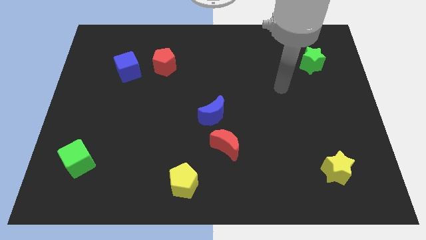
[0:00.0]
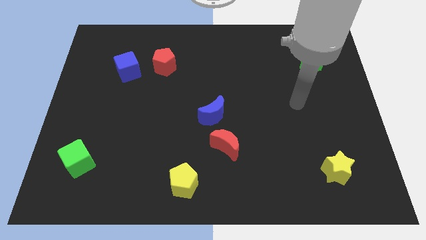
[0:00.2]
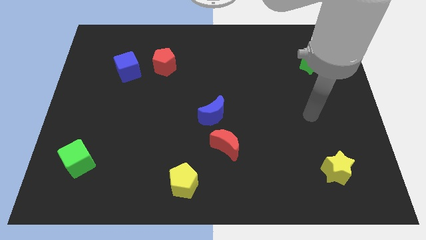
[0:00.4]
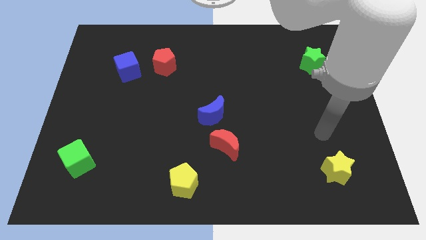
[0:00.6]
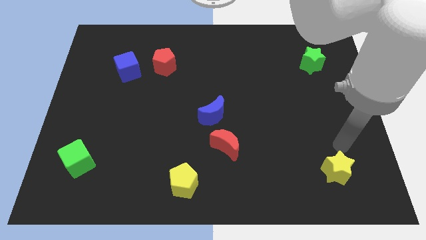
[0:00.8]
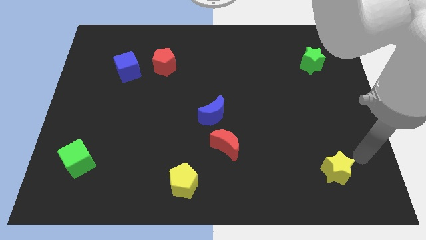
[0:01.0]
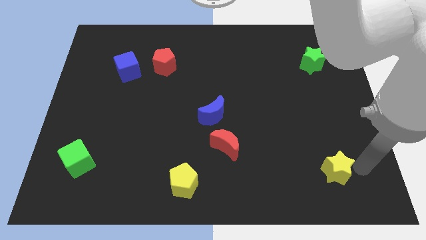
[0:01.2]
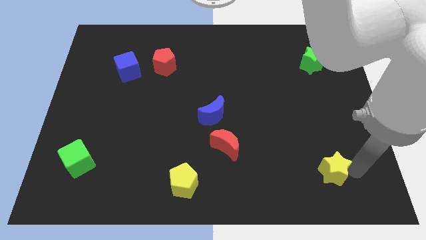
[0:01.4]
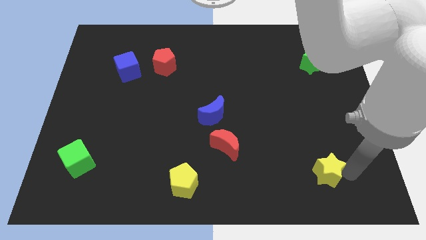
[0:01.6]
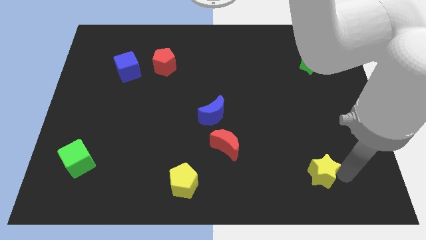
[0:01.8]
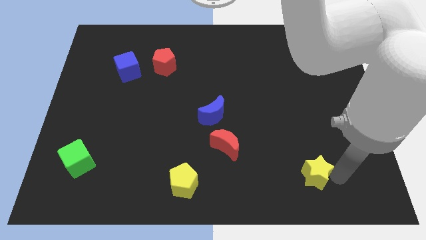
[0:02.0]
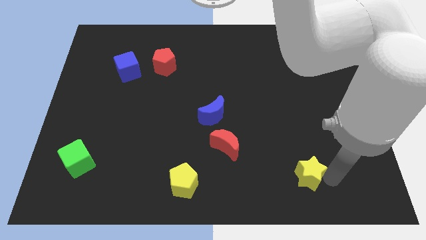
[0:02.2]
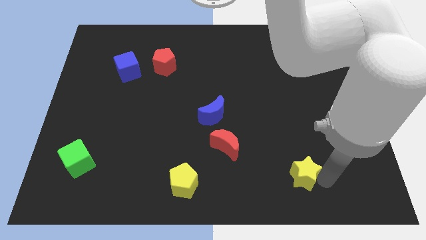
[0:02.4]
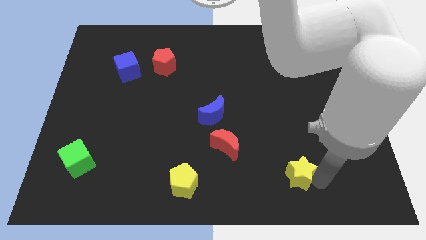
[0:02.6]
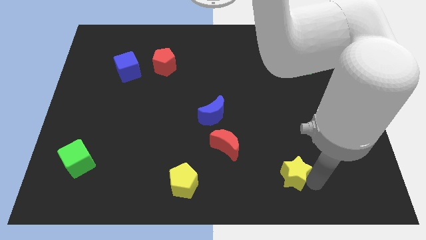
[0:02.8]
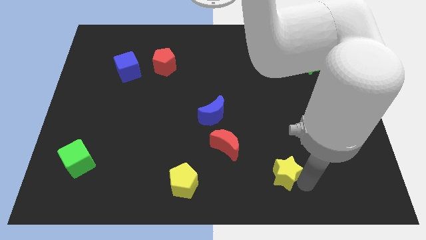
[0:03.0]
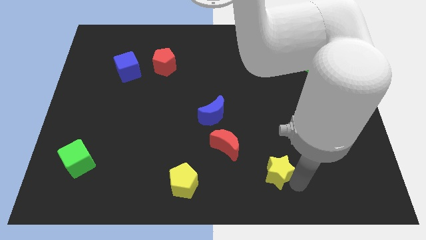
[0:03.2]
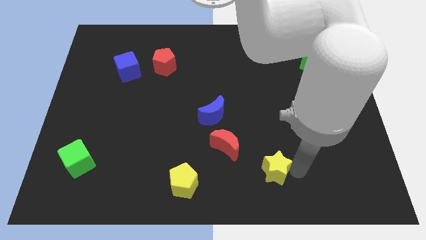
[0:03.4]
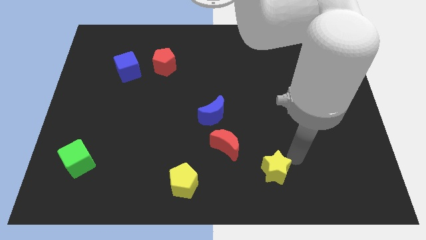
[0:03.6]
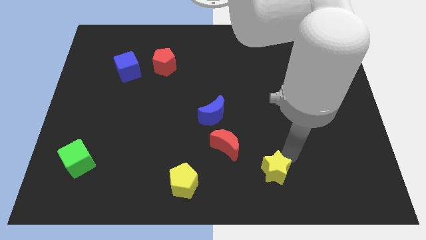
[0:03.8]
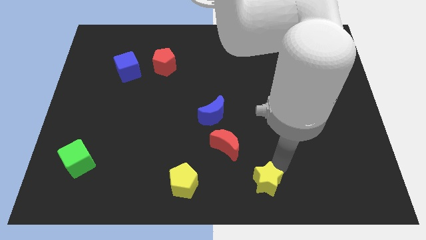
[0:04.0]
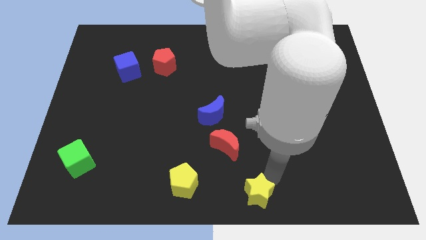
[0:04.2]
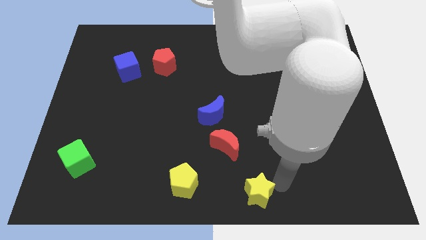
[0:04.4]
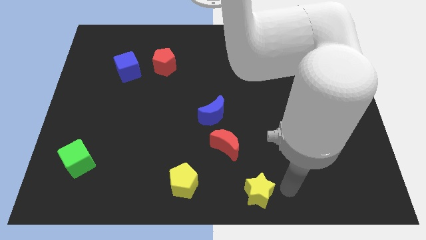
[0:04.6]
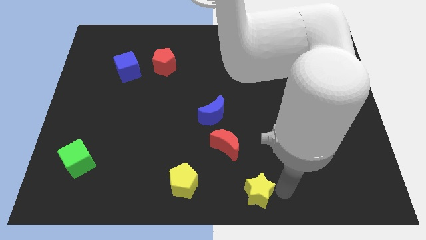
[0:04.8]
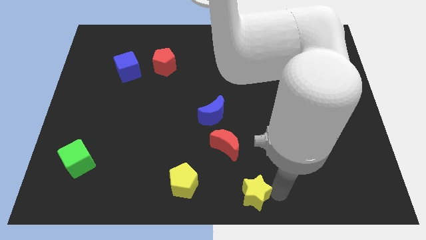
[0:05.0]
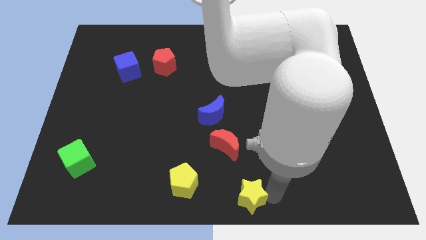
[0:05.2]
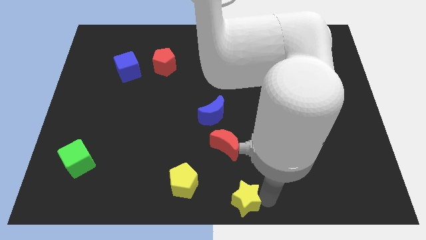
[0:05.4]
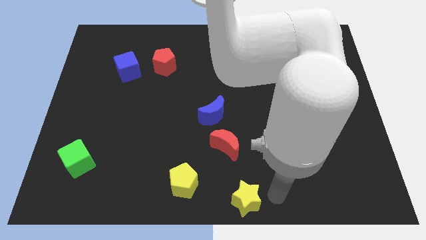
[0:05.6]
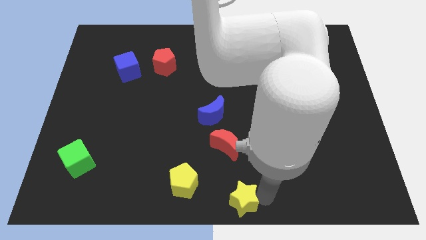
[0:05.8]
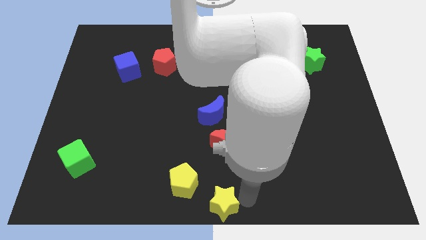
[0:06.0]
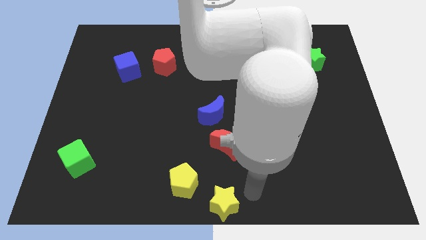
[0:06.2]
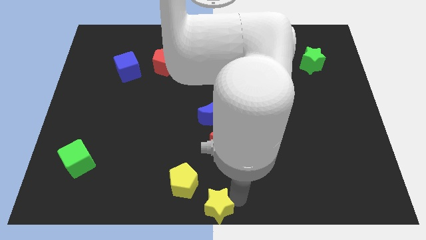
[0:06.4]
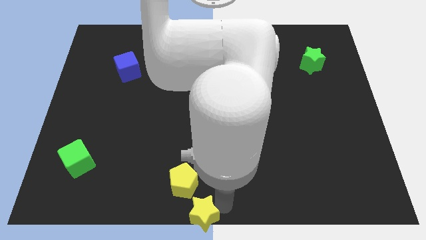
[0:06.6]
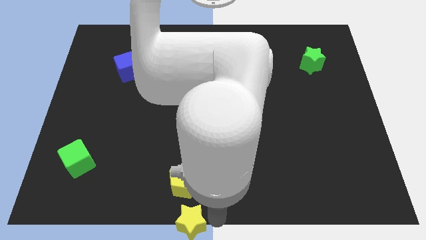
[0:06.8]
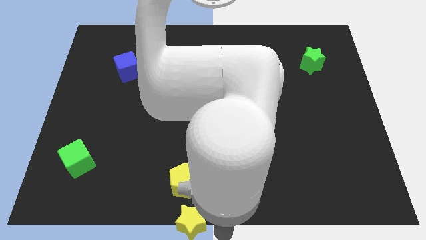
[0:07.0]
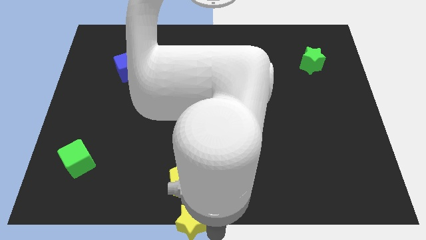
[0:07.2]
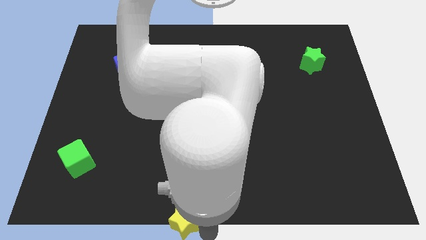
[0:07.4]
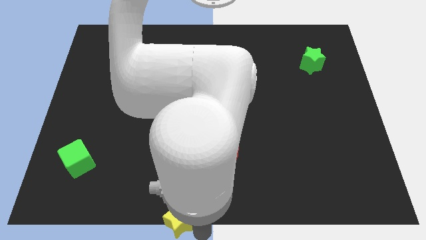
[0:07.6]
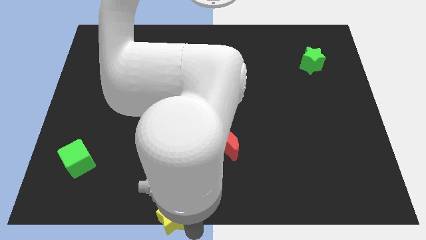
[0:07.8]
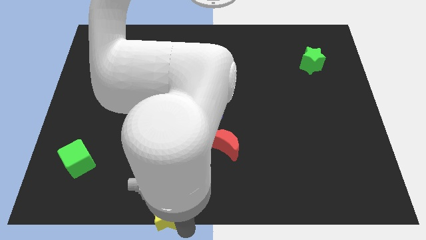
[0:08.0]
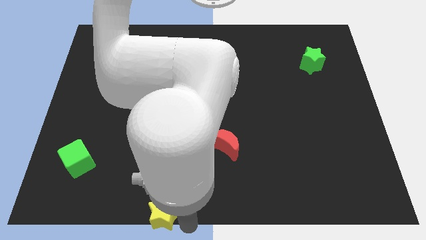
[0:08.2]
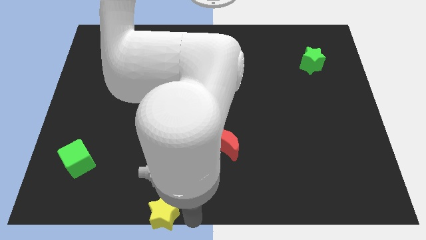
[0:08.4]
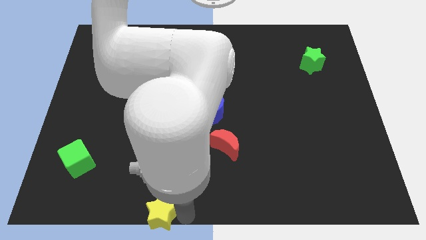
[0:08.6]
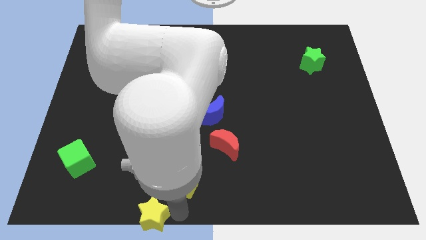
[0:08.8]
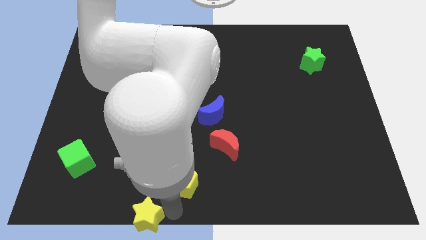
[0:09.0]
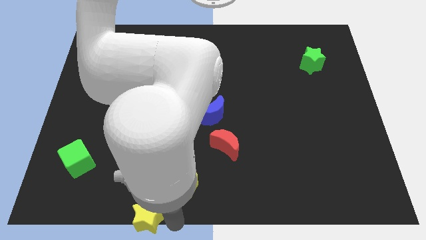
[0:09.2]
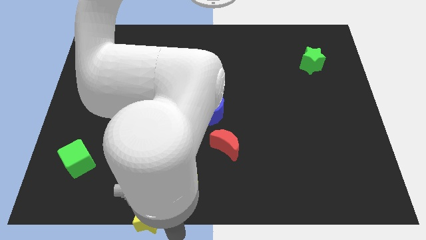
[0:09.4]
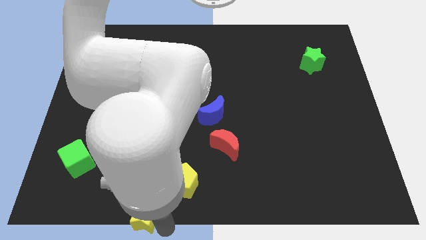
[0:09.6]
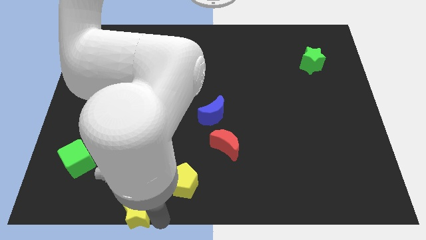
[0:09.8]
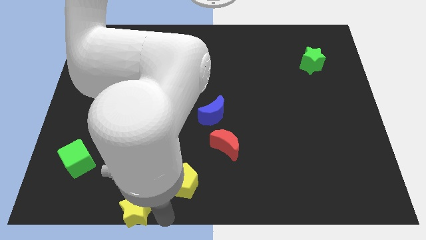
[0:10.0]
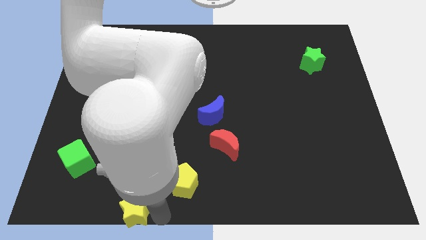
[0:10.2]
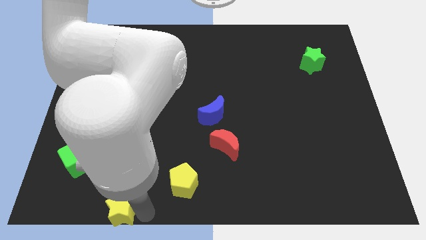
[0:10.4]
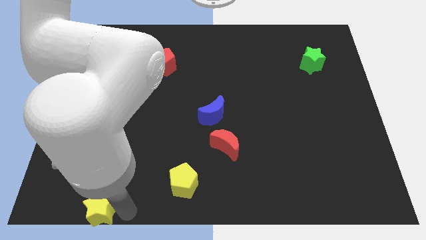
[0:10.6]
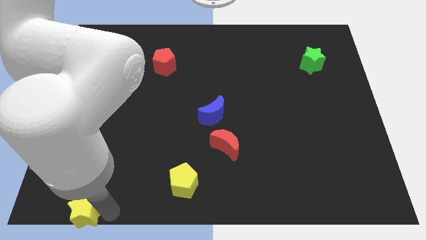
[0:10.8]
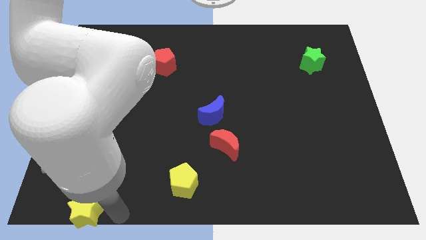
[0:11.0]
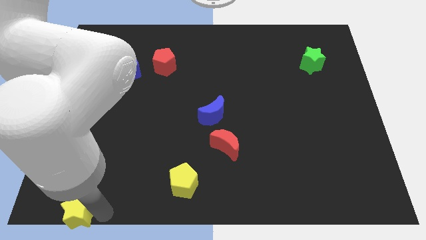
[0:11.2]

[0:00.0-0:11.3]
slide the yellow star to the lower left corner
